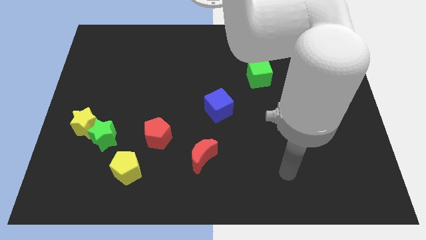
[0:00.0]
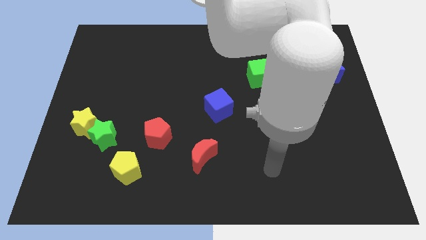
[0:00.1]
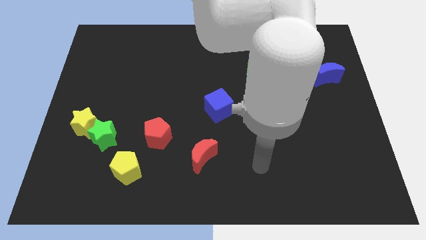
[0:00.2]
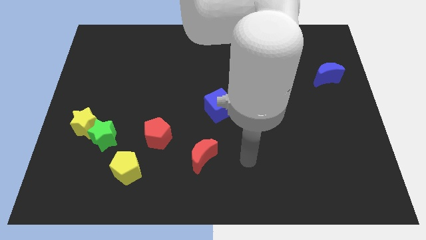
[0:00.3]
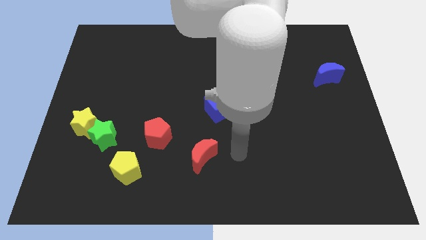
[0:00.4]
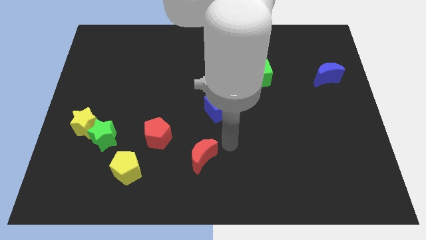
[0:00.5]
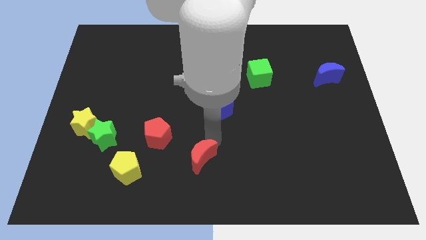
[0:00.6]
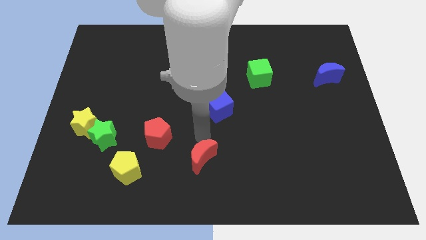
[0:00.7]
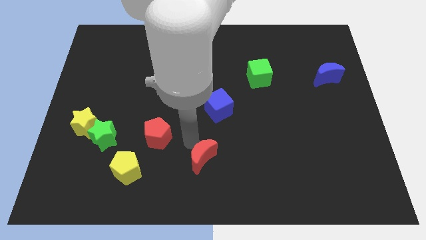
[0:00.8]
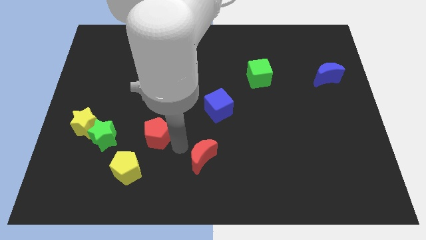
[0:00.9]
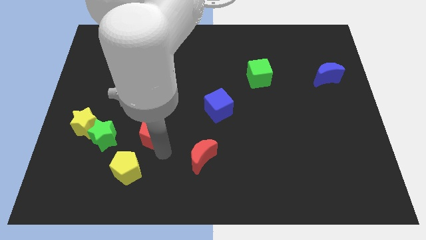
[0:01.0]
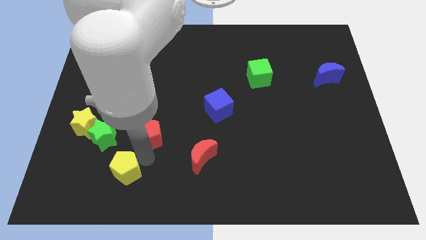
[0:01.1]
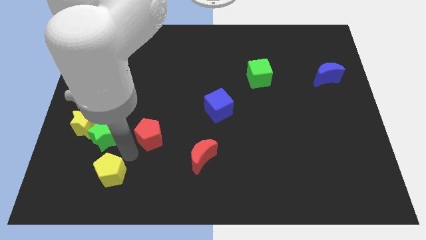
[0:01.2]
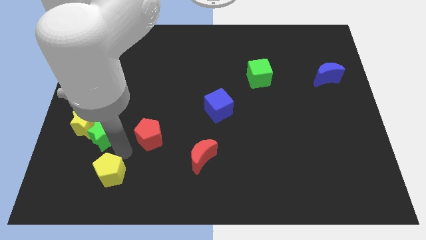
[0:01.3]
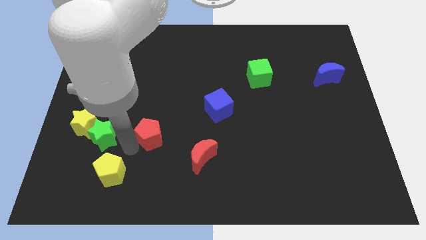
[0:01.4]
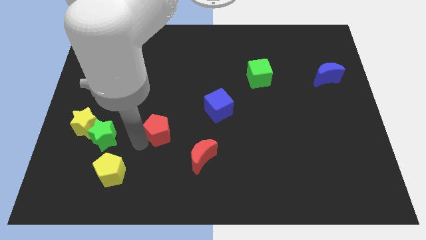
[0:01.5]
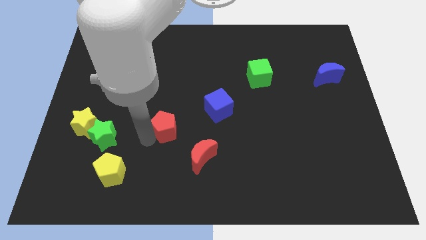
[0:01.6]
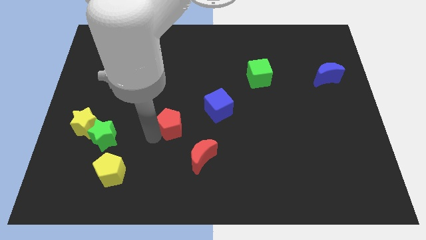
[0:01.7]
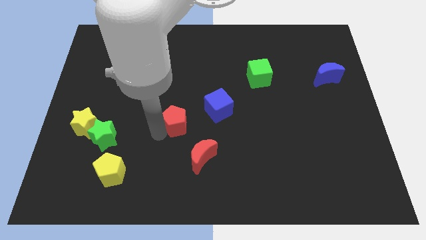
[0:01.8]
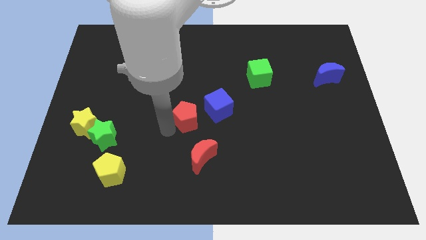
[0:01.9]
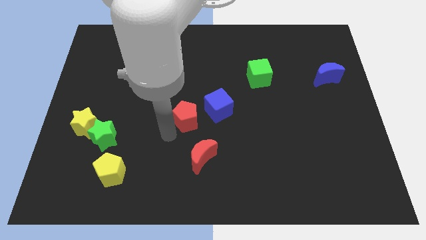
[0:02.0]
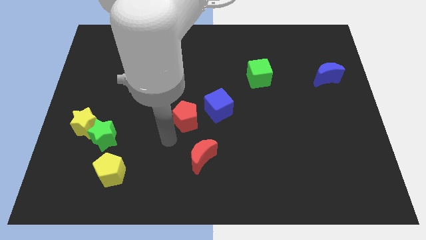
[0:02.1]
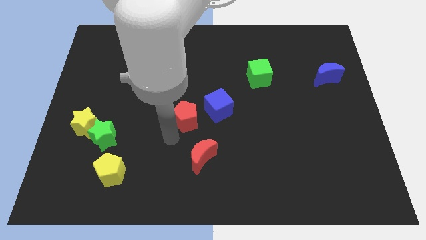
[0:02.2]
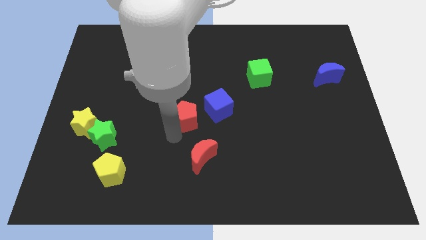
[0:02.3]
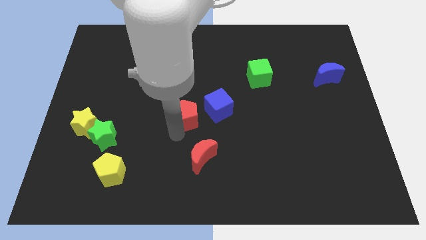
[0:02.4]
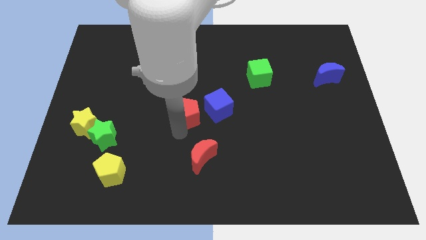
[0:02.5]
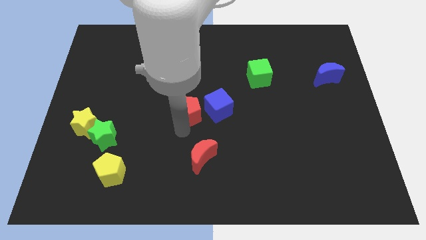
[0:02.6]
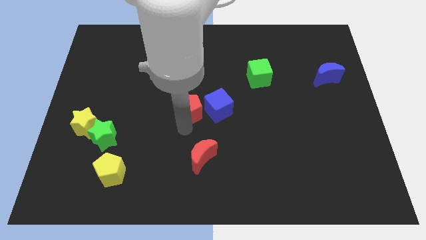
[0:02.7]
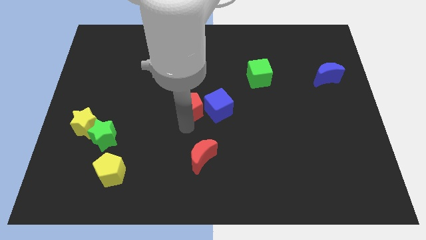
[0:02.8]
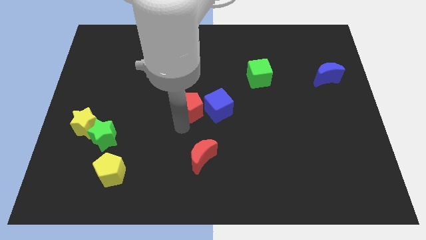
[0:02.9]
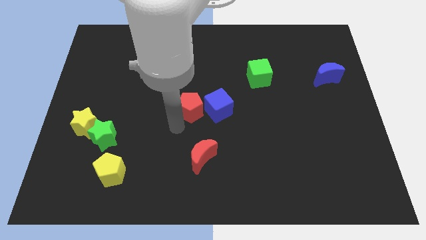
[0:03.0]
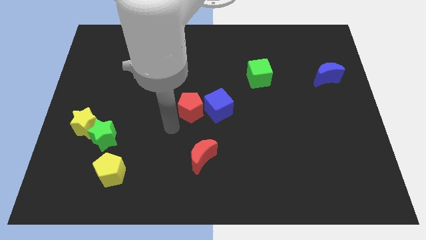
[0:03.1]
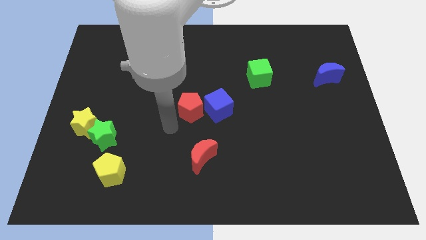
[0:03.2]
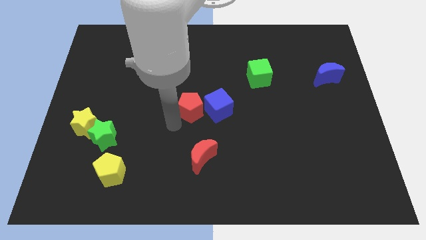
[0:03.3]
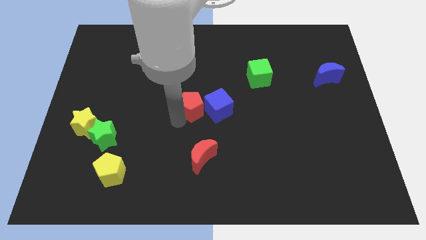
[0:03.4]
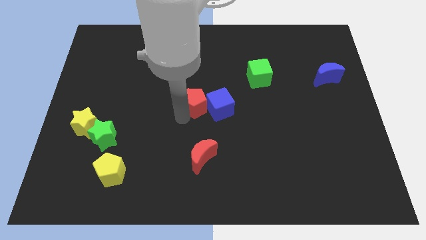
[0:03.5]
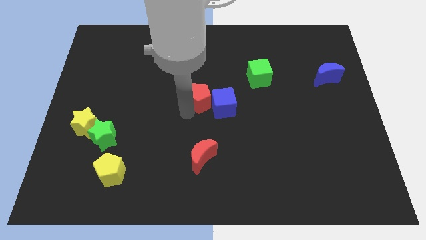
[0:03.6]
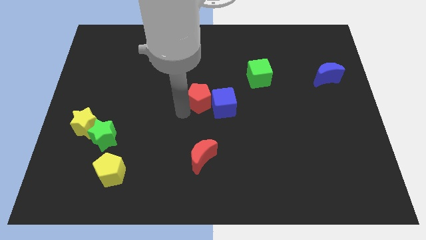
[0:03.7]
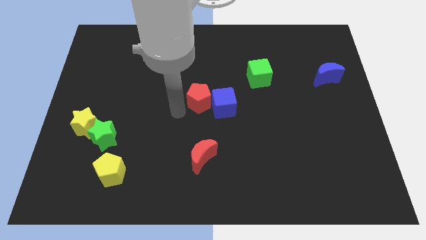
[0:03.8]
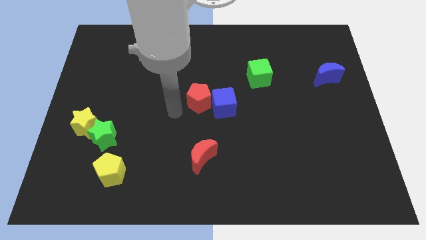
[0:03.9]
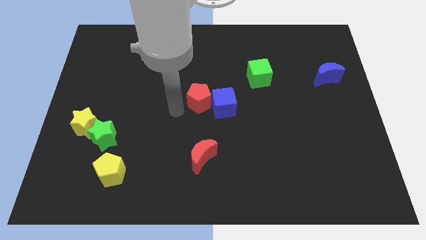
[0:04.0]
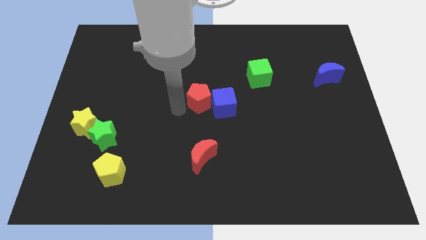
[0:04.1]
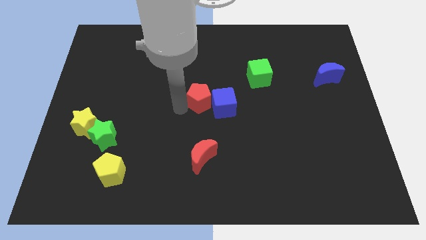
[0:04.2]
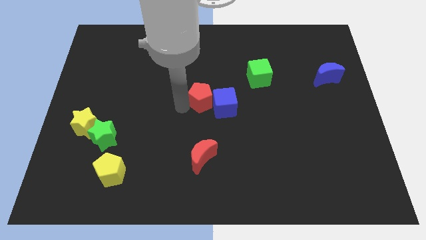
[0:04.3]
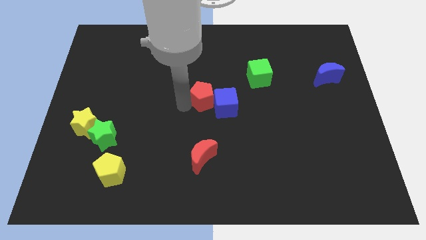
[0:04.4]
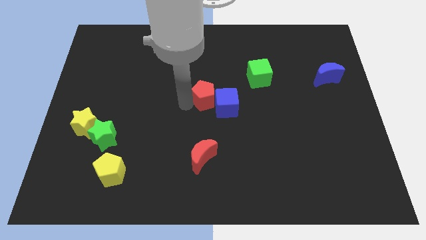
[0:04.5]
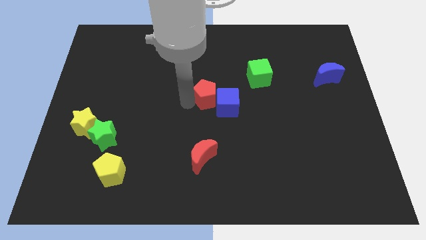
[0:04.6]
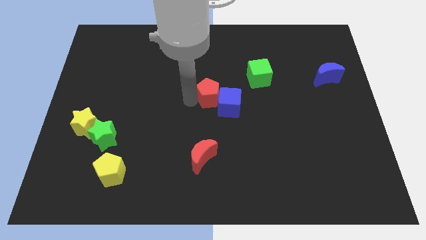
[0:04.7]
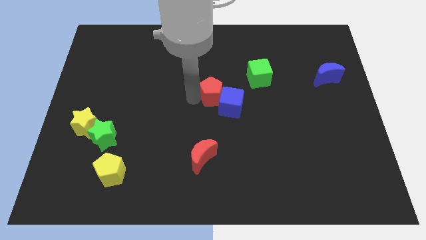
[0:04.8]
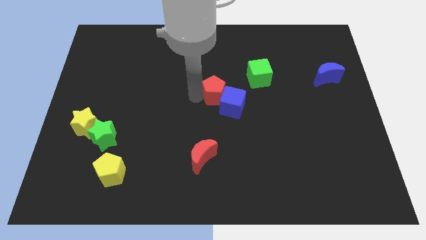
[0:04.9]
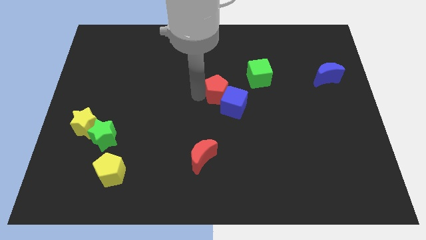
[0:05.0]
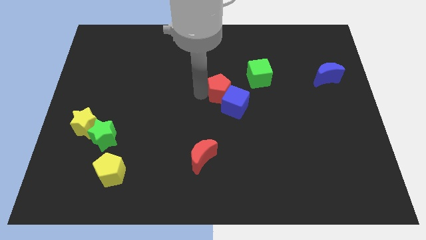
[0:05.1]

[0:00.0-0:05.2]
push the red pentagon to the bottom left side of the green cube

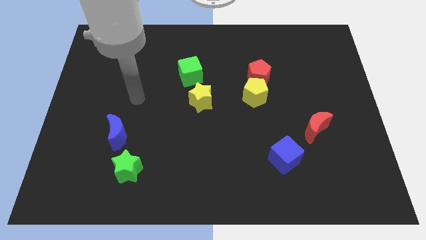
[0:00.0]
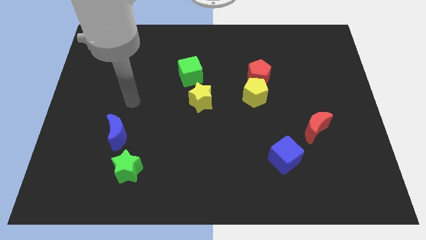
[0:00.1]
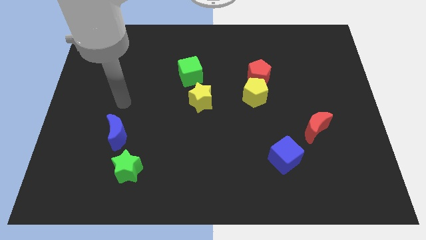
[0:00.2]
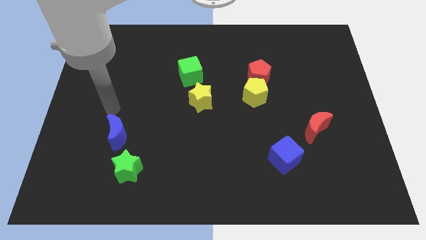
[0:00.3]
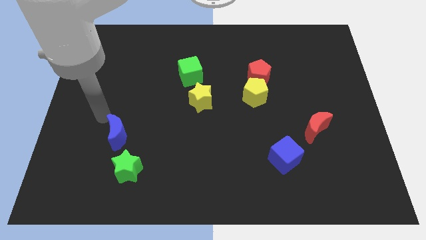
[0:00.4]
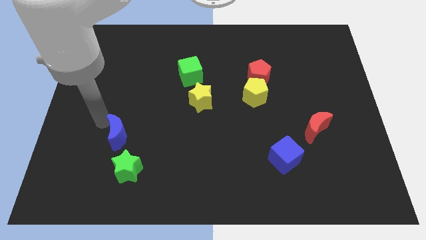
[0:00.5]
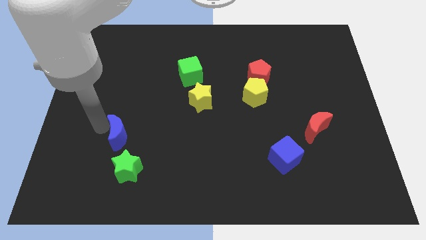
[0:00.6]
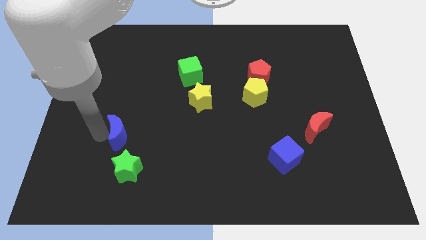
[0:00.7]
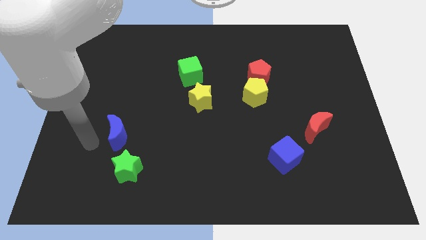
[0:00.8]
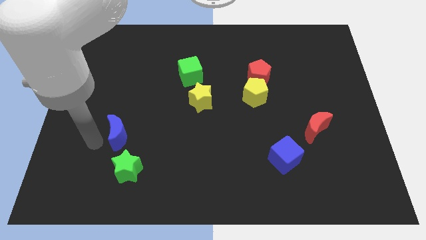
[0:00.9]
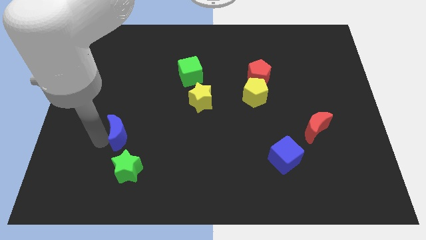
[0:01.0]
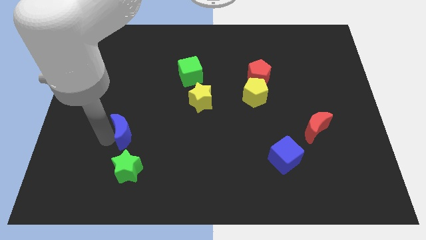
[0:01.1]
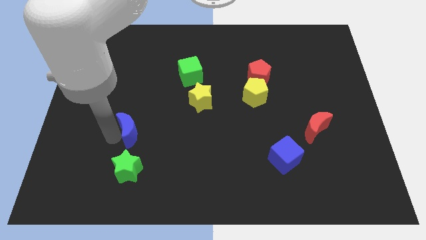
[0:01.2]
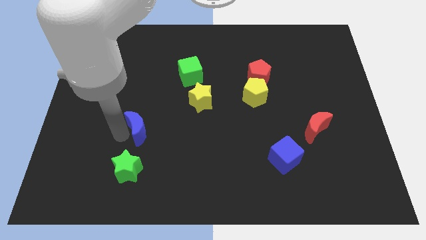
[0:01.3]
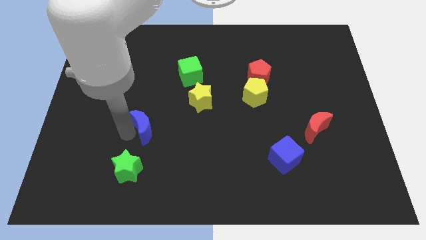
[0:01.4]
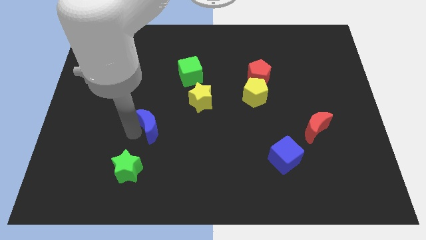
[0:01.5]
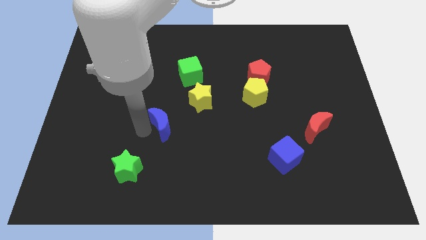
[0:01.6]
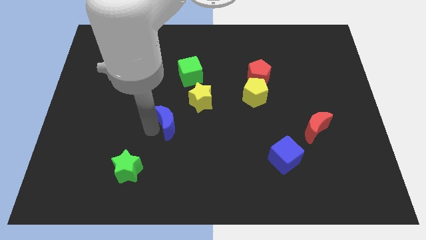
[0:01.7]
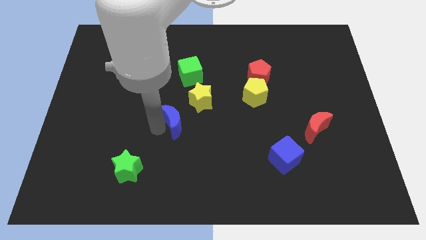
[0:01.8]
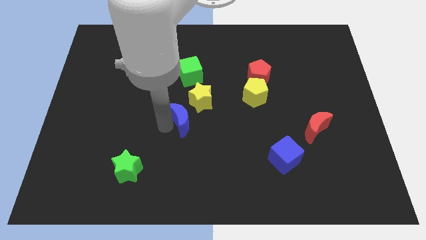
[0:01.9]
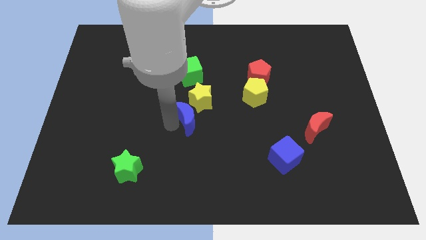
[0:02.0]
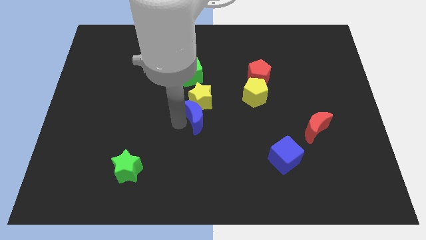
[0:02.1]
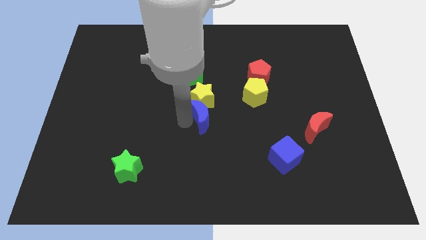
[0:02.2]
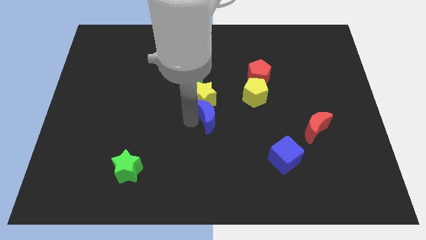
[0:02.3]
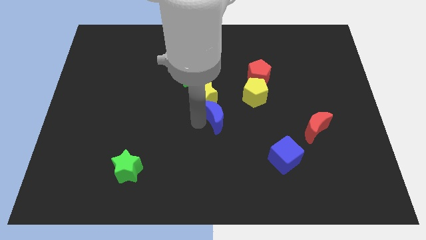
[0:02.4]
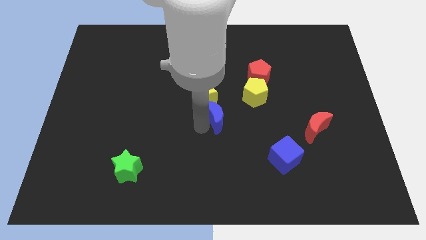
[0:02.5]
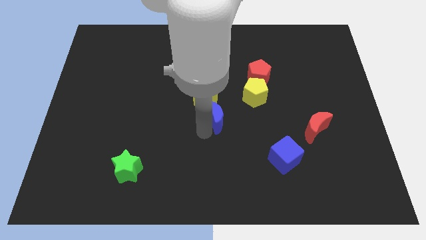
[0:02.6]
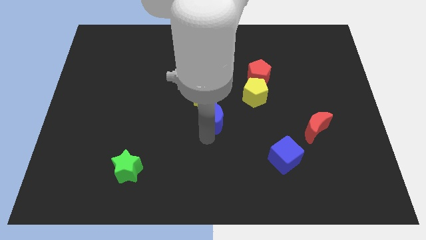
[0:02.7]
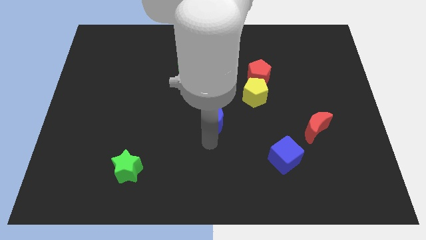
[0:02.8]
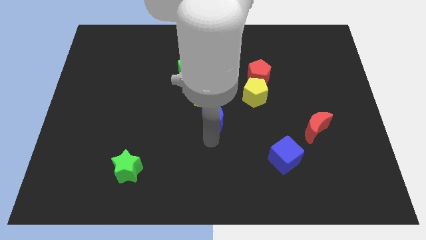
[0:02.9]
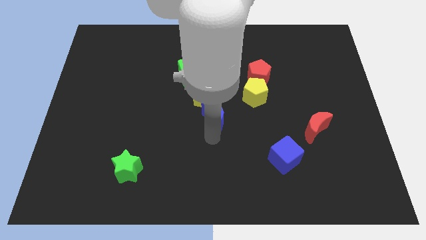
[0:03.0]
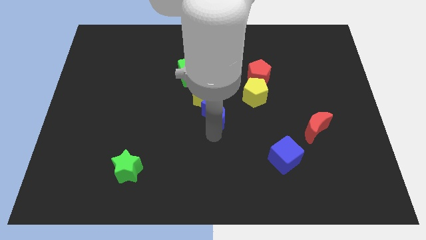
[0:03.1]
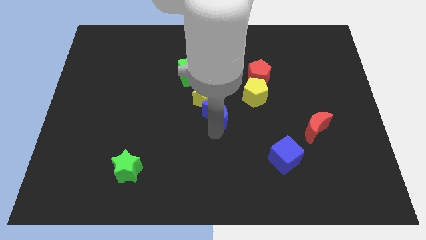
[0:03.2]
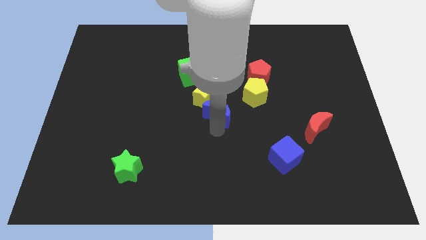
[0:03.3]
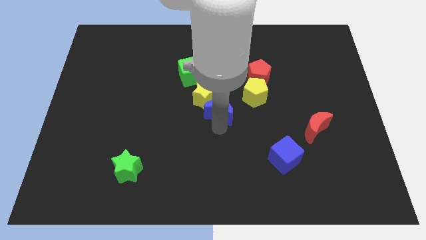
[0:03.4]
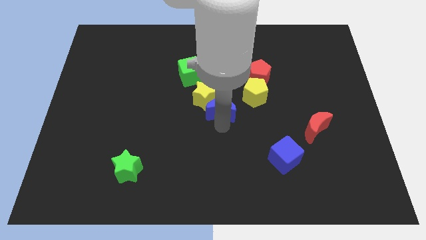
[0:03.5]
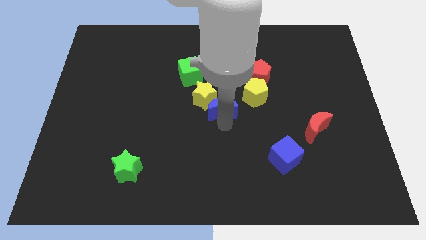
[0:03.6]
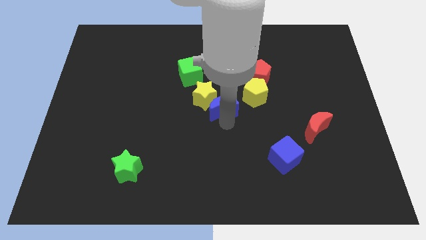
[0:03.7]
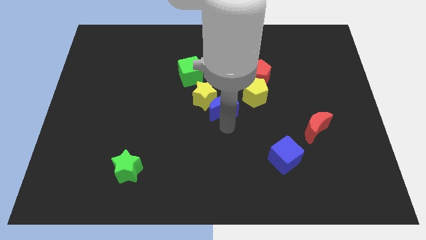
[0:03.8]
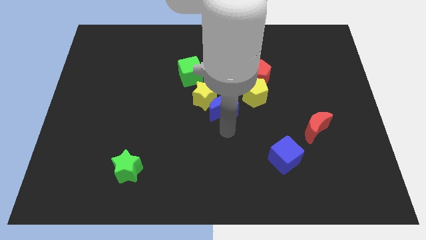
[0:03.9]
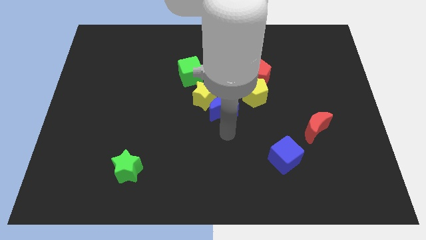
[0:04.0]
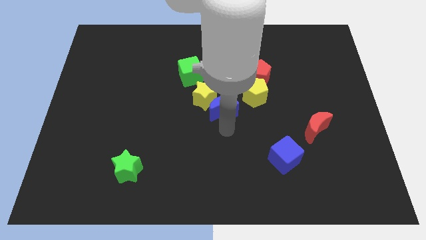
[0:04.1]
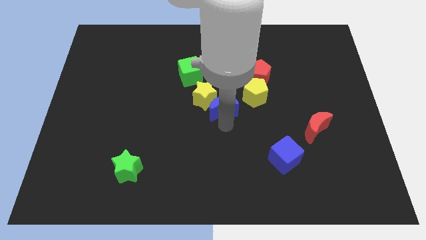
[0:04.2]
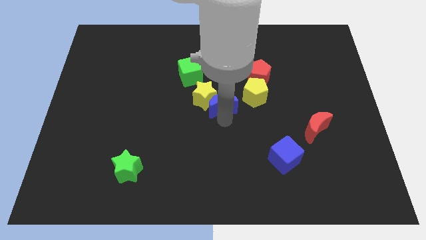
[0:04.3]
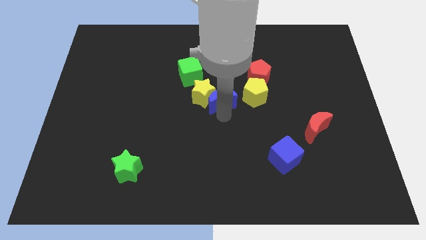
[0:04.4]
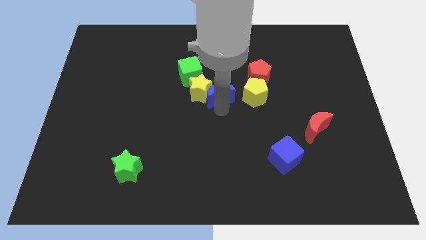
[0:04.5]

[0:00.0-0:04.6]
move the blue moon to the top right of the yellow star
